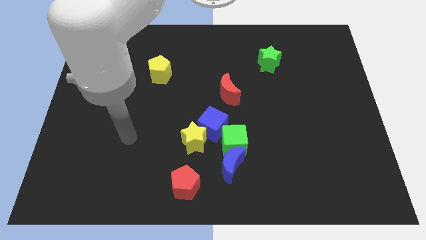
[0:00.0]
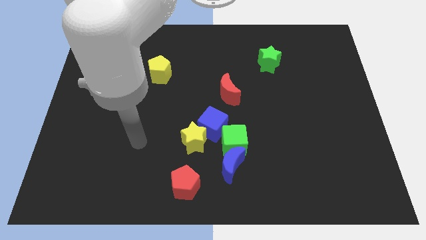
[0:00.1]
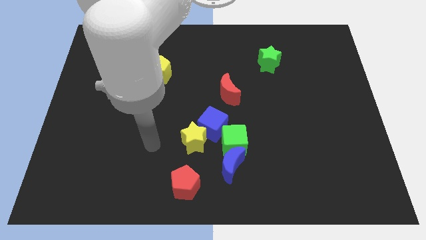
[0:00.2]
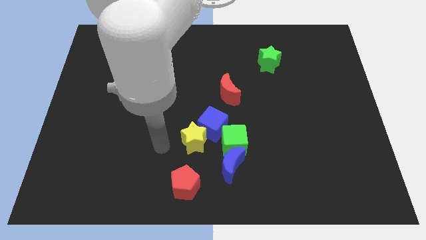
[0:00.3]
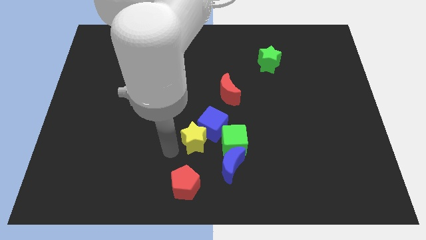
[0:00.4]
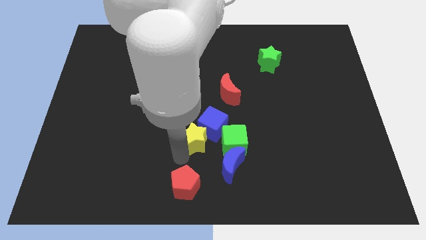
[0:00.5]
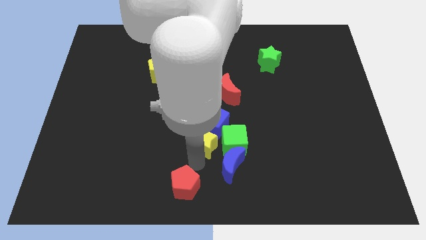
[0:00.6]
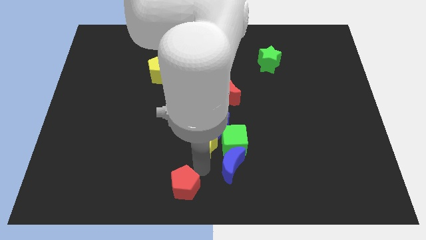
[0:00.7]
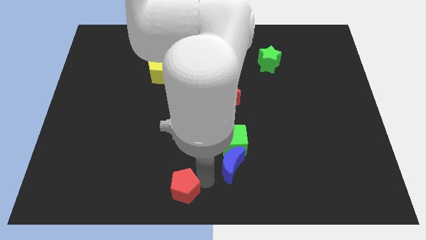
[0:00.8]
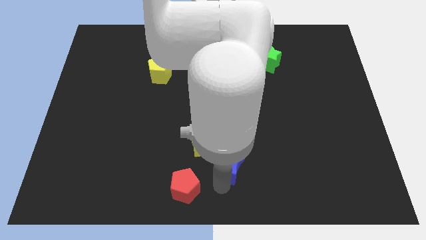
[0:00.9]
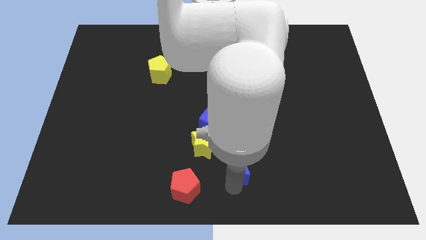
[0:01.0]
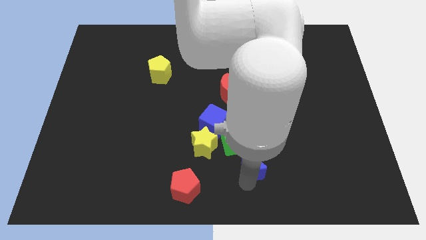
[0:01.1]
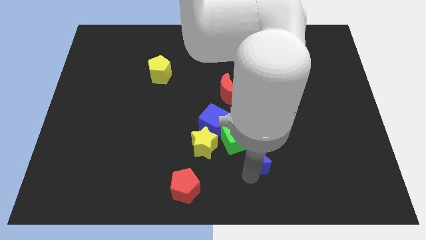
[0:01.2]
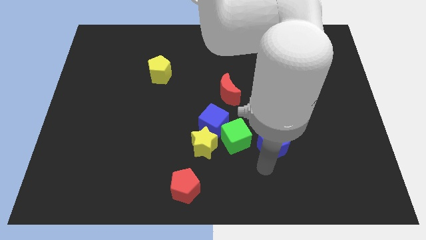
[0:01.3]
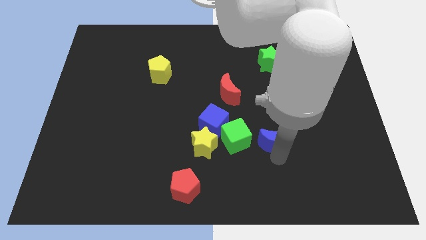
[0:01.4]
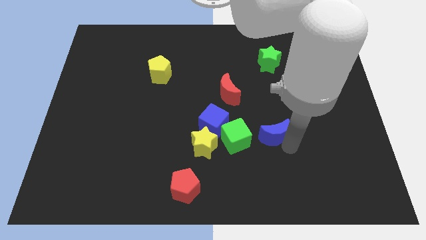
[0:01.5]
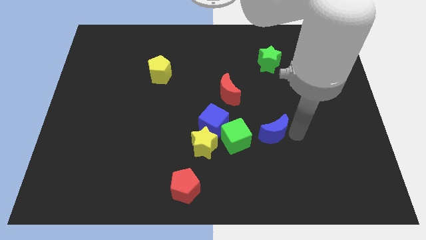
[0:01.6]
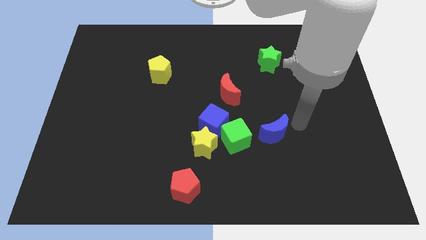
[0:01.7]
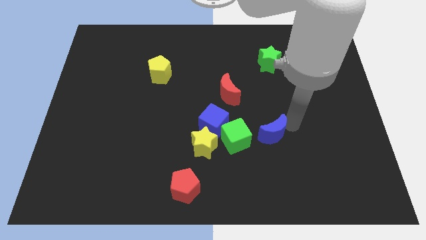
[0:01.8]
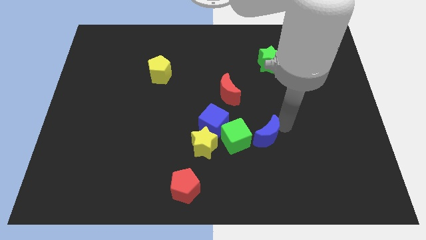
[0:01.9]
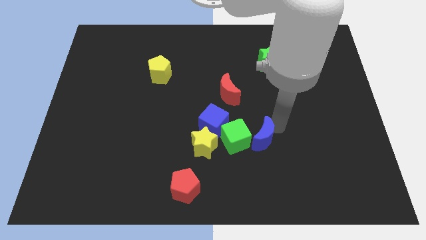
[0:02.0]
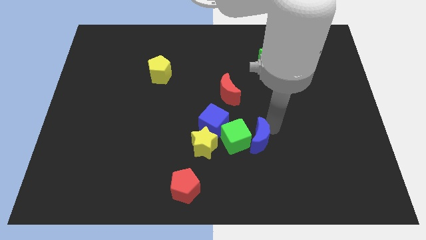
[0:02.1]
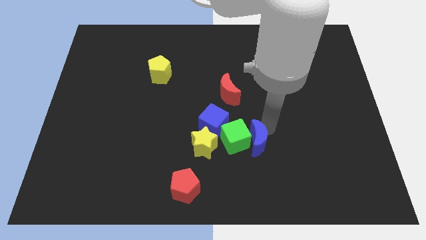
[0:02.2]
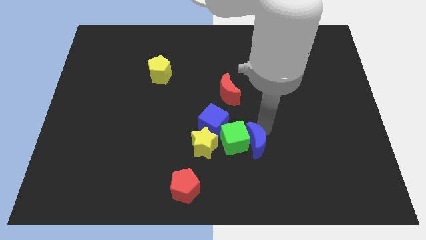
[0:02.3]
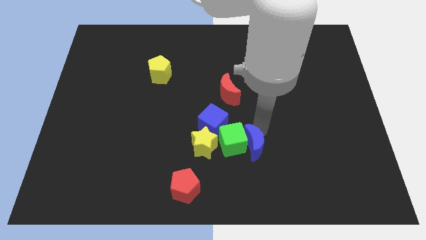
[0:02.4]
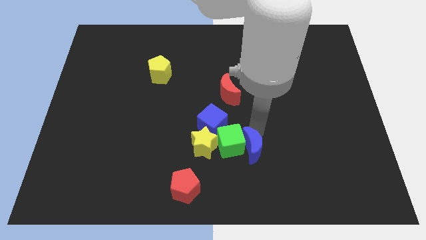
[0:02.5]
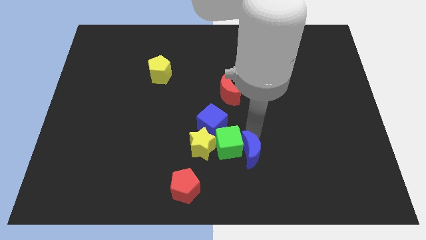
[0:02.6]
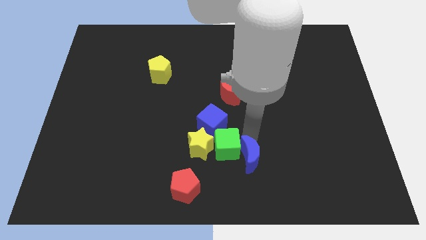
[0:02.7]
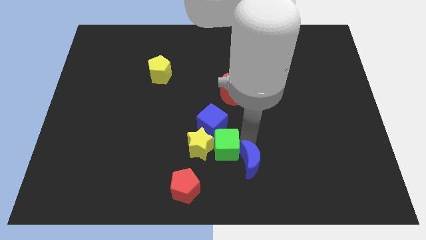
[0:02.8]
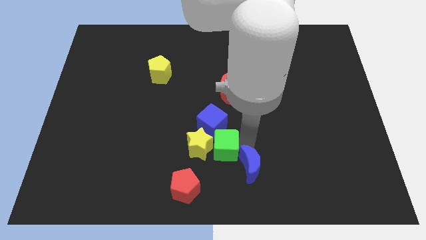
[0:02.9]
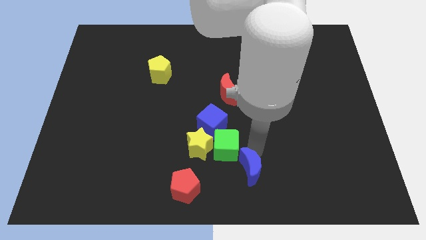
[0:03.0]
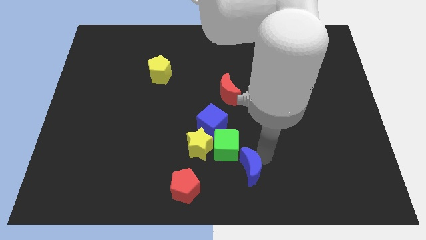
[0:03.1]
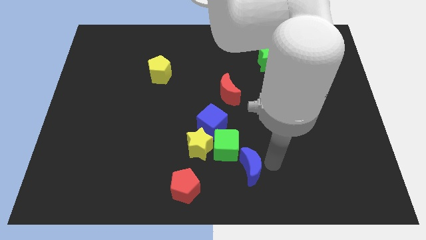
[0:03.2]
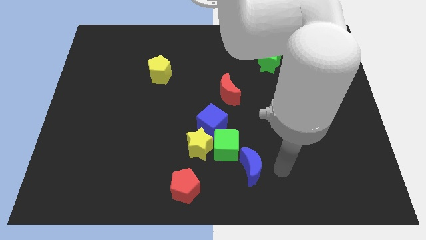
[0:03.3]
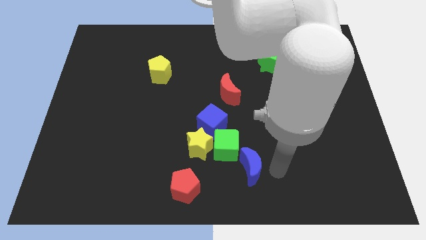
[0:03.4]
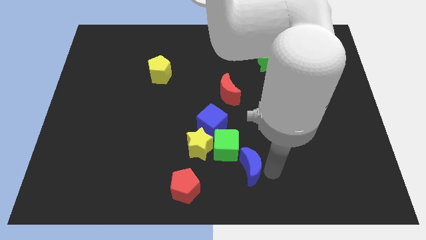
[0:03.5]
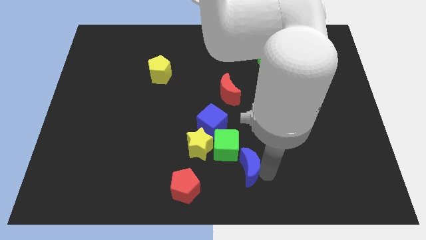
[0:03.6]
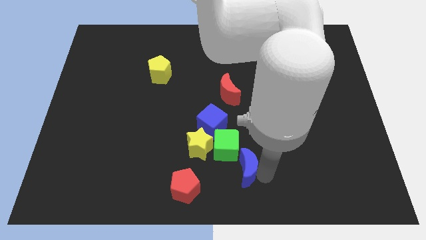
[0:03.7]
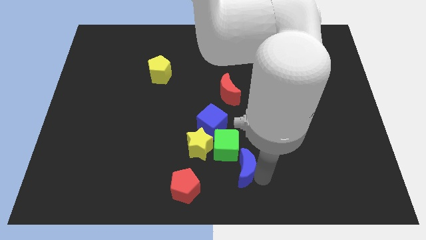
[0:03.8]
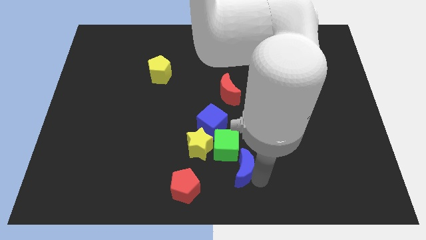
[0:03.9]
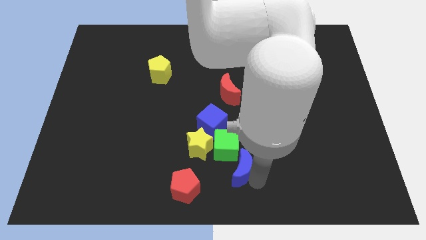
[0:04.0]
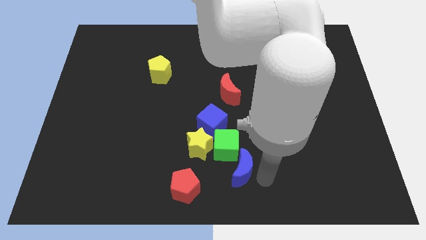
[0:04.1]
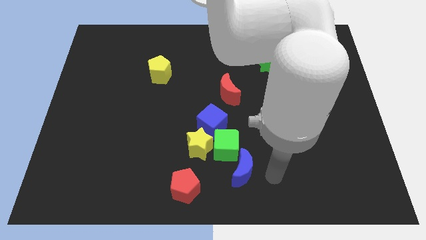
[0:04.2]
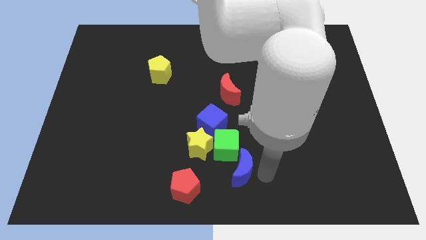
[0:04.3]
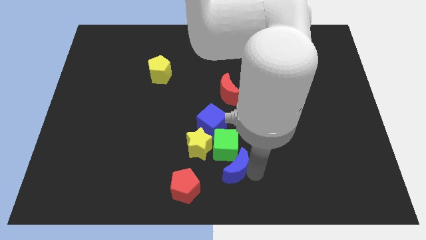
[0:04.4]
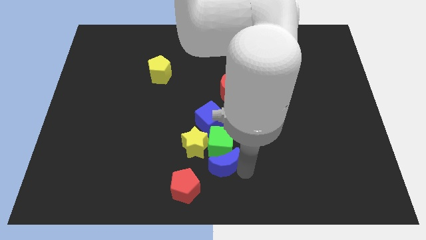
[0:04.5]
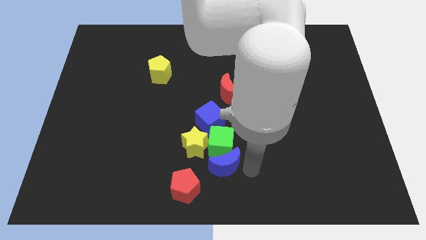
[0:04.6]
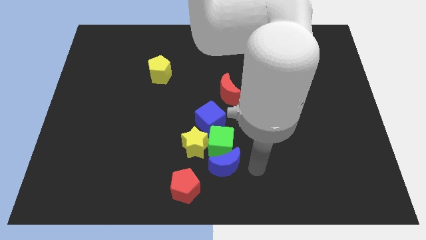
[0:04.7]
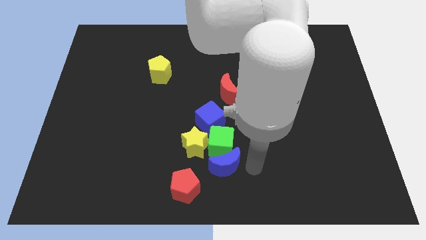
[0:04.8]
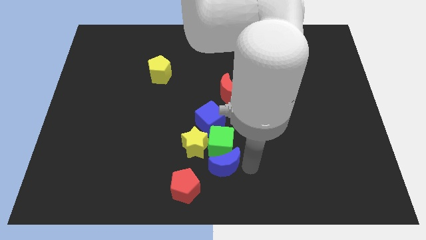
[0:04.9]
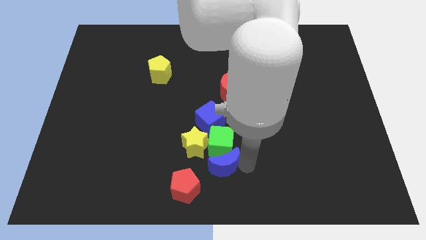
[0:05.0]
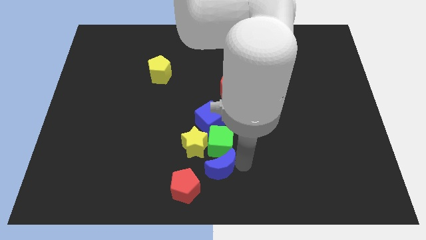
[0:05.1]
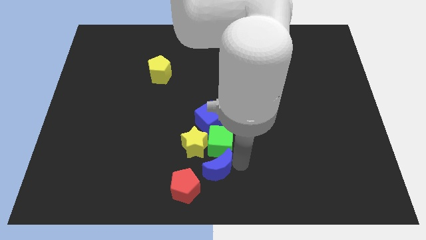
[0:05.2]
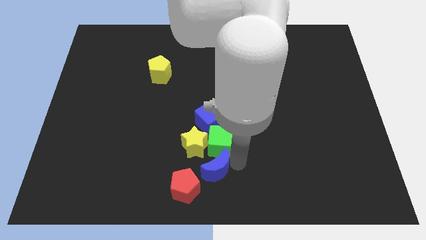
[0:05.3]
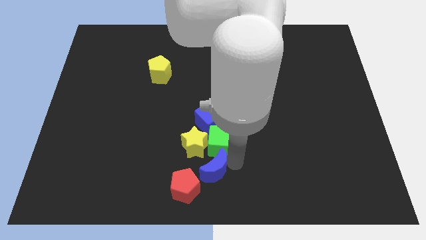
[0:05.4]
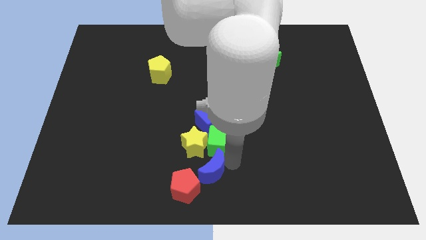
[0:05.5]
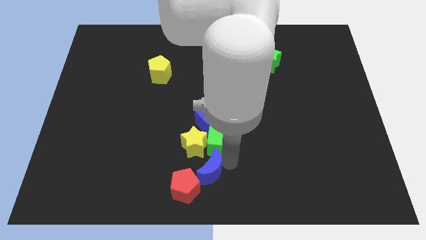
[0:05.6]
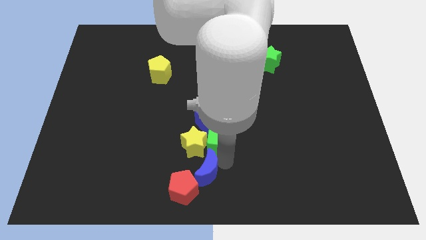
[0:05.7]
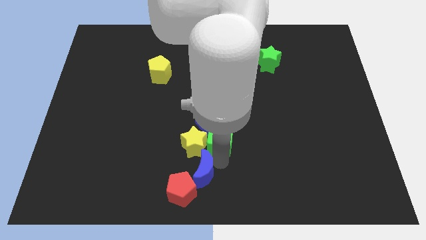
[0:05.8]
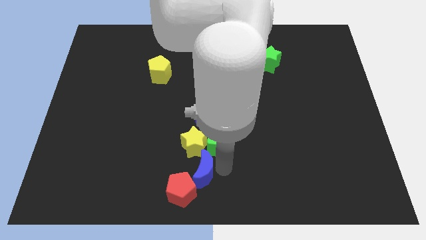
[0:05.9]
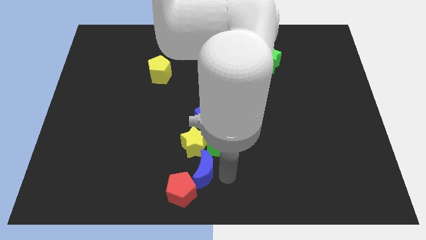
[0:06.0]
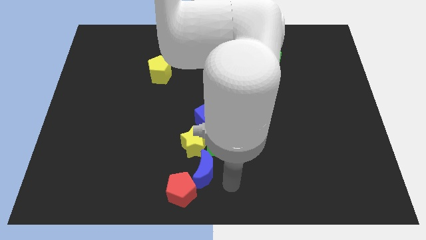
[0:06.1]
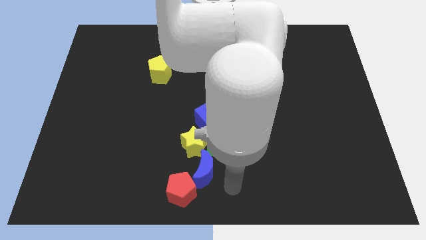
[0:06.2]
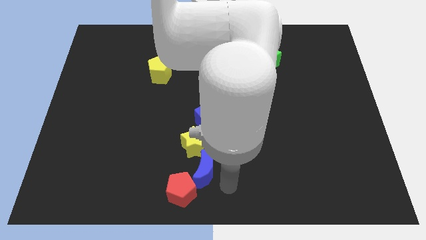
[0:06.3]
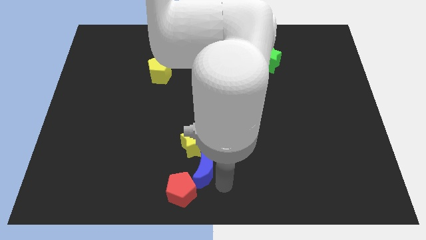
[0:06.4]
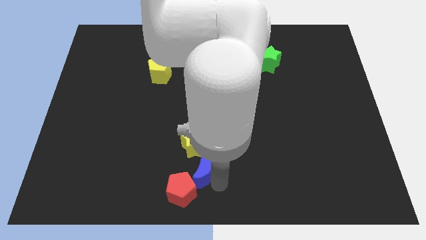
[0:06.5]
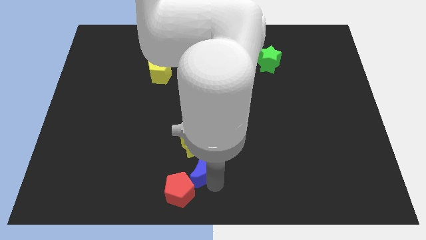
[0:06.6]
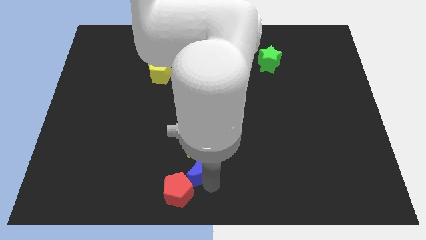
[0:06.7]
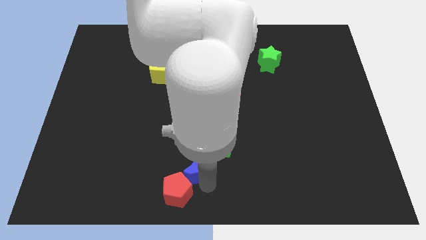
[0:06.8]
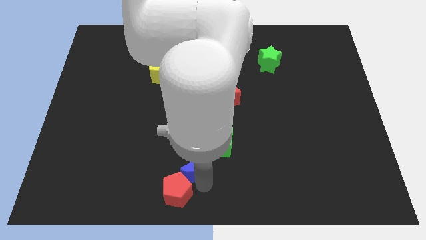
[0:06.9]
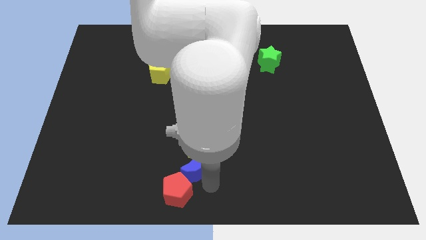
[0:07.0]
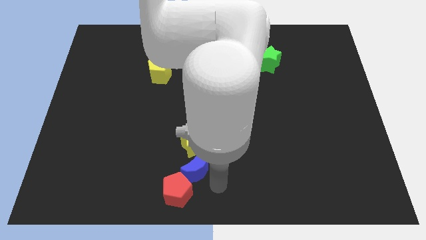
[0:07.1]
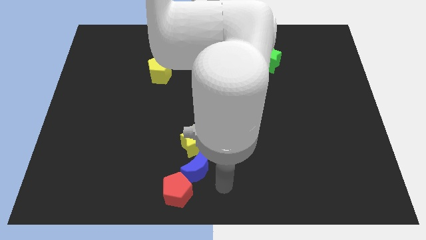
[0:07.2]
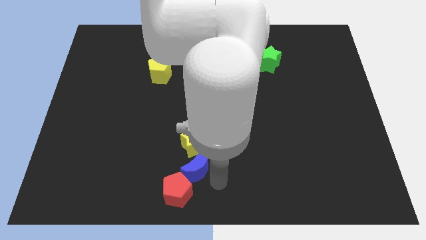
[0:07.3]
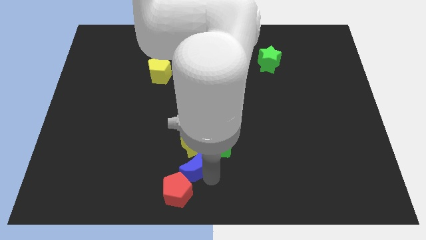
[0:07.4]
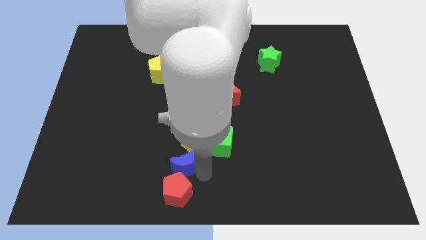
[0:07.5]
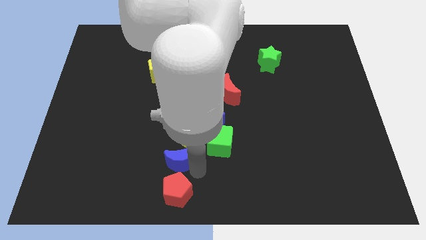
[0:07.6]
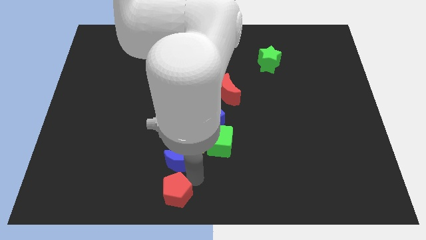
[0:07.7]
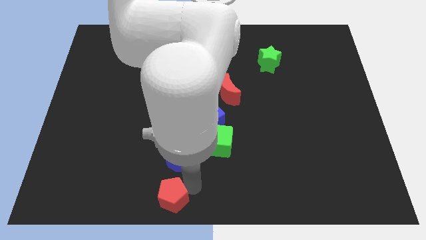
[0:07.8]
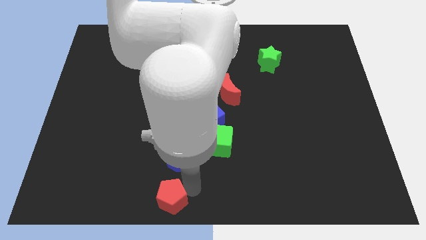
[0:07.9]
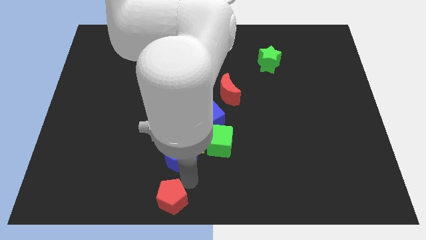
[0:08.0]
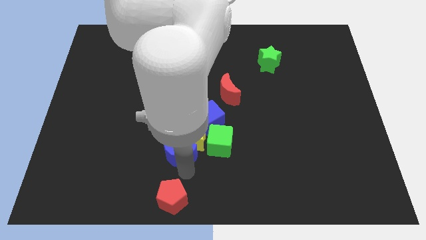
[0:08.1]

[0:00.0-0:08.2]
move the blue moon upwards and to the left diagonally slightly
